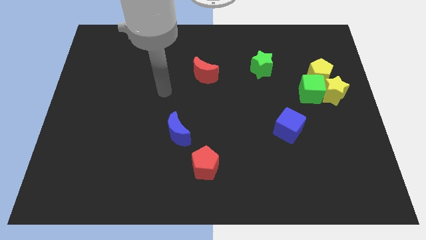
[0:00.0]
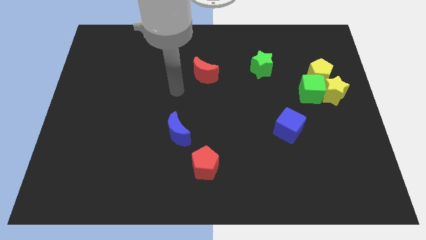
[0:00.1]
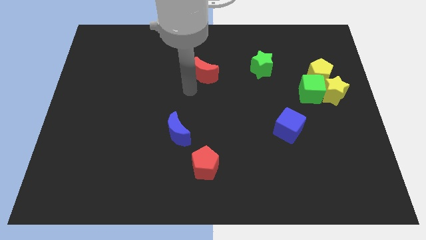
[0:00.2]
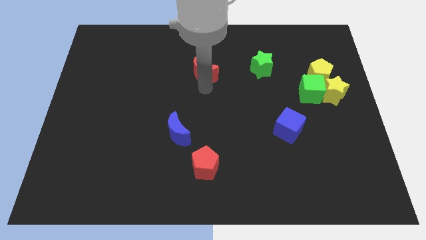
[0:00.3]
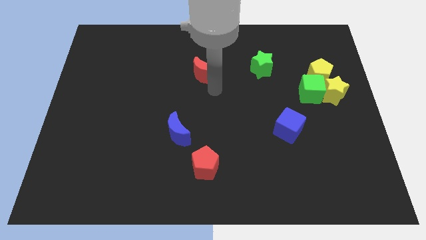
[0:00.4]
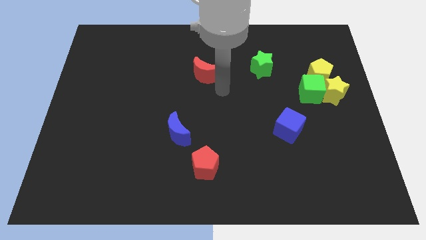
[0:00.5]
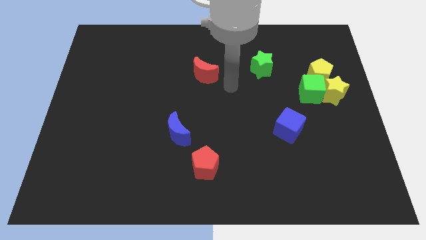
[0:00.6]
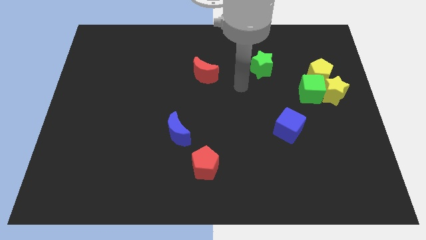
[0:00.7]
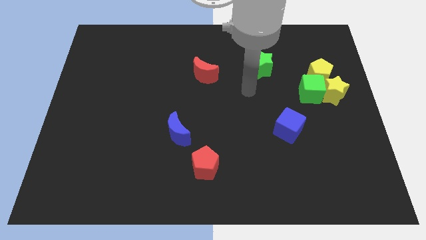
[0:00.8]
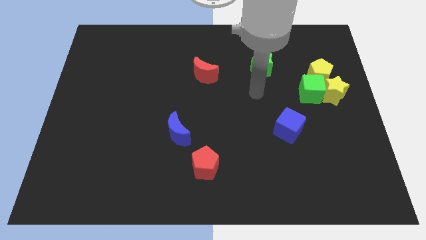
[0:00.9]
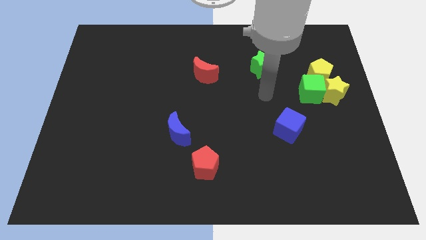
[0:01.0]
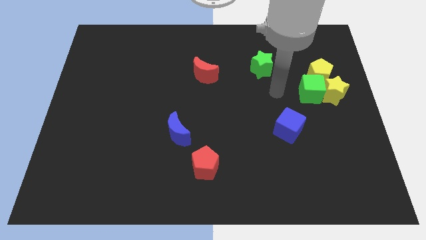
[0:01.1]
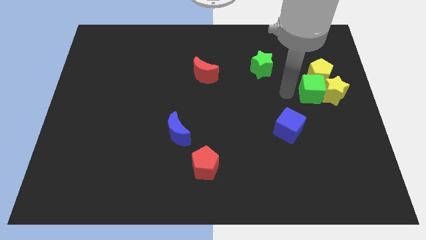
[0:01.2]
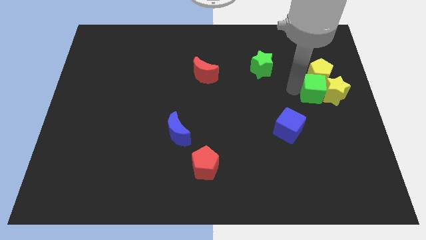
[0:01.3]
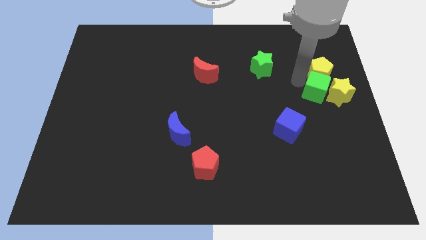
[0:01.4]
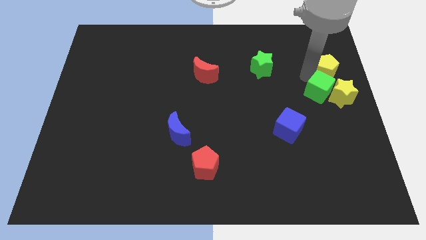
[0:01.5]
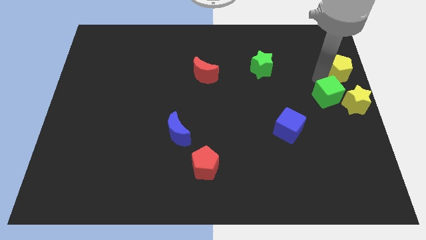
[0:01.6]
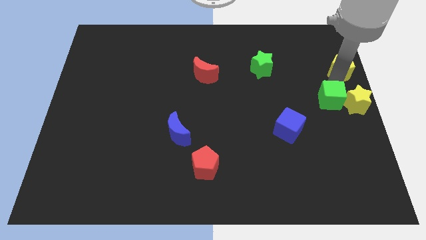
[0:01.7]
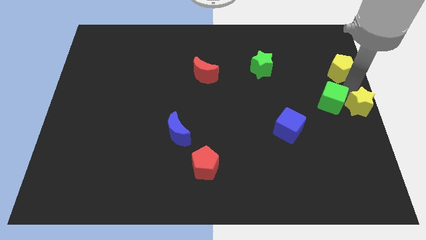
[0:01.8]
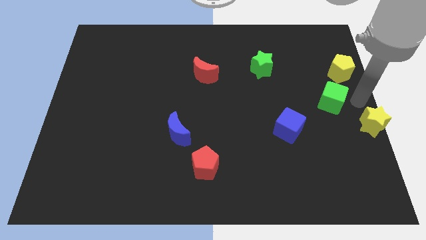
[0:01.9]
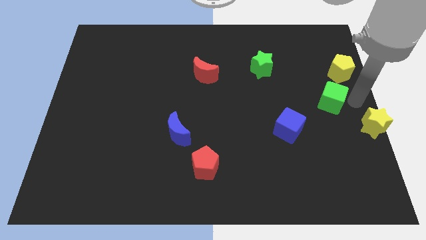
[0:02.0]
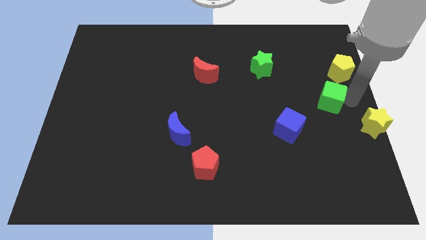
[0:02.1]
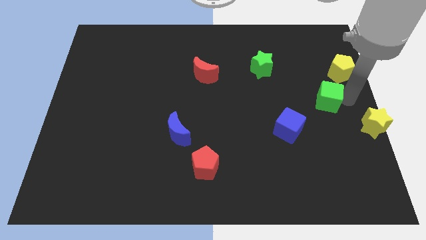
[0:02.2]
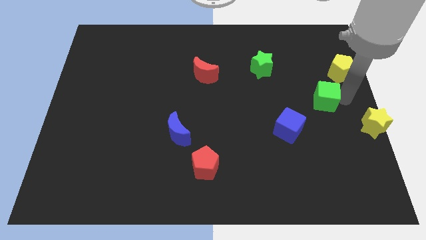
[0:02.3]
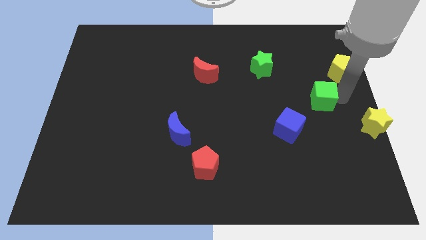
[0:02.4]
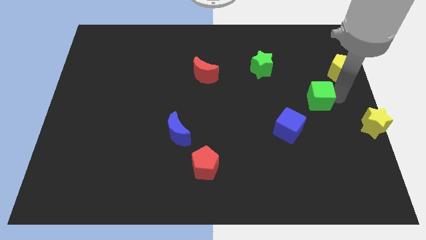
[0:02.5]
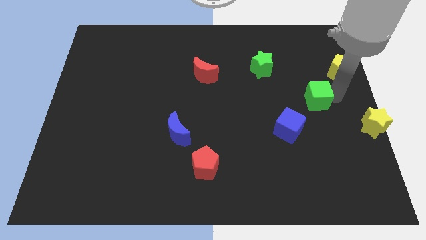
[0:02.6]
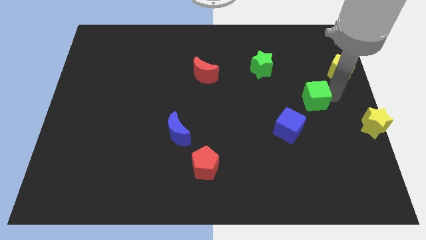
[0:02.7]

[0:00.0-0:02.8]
move the green cube away from the yellow star and yellow pentagon

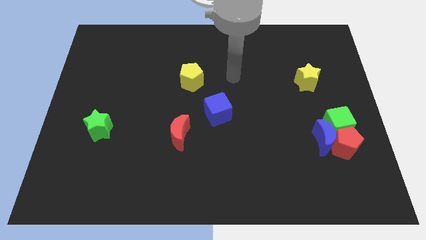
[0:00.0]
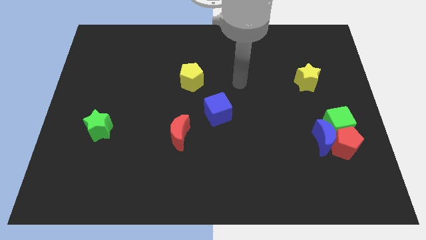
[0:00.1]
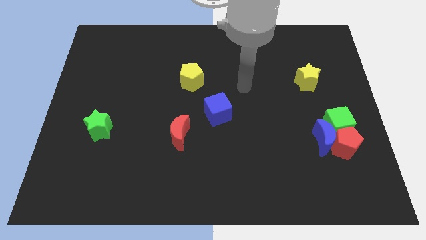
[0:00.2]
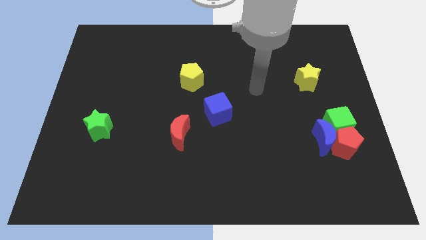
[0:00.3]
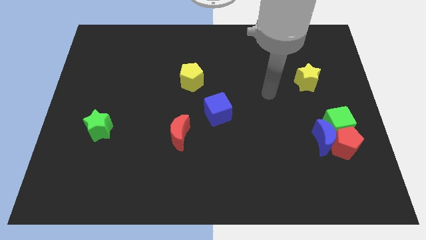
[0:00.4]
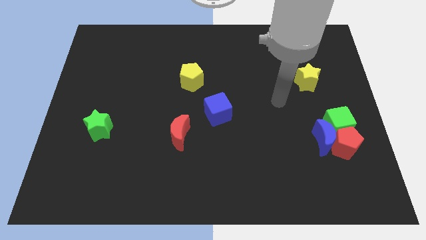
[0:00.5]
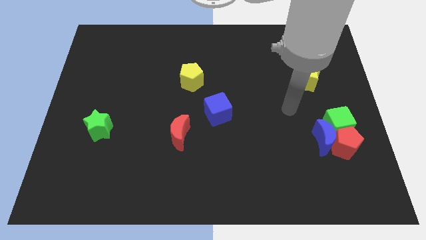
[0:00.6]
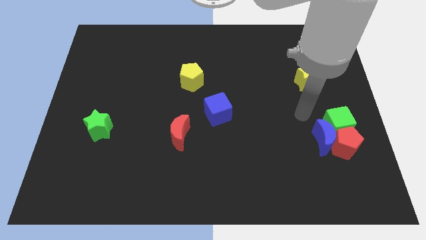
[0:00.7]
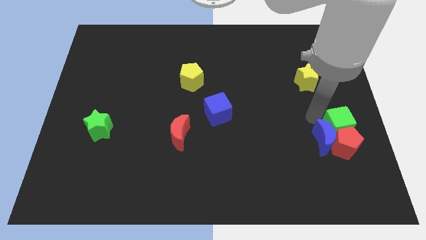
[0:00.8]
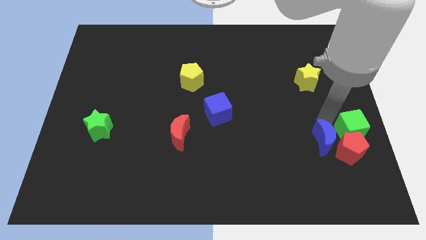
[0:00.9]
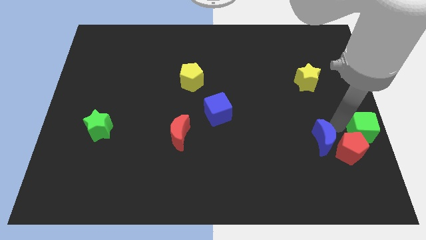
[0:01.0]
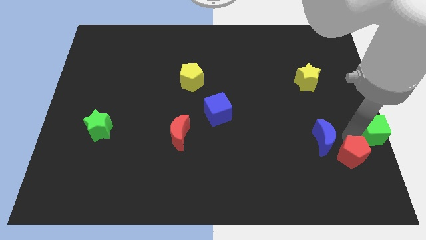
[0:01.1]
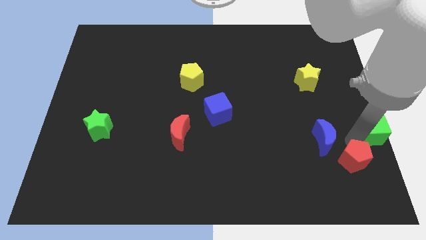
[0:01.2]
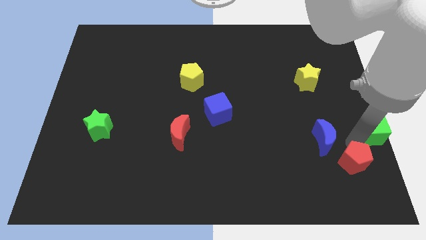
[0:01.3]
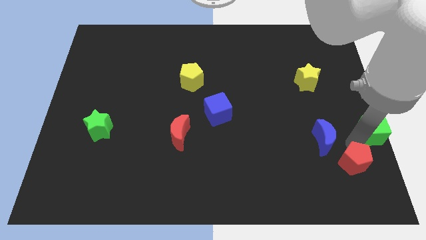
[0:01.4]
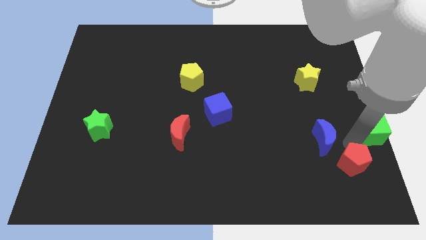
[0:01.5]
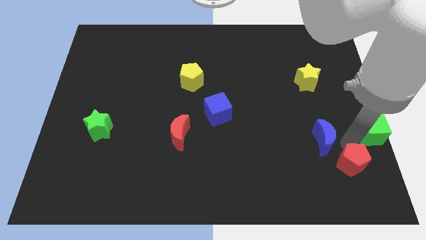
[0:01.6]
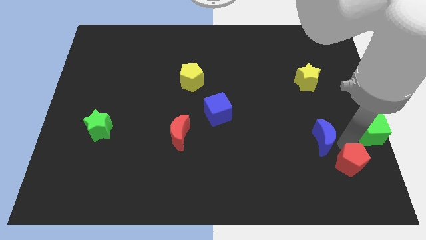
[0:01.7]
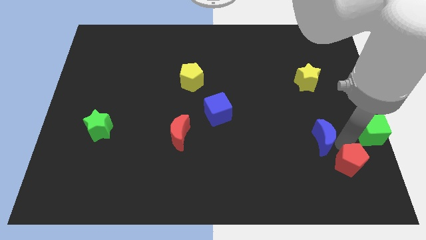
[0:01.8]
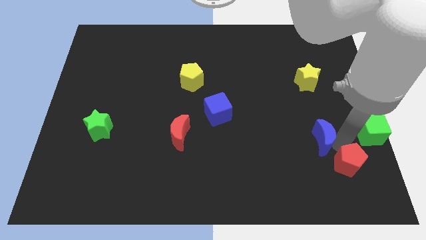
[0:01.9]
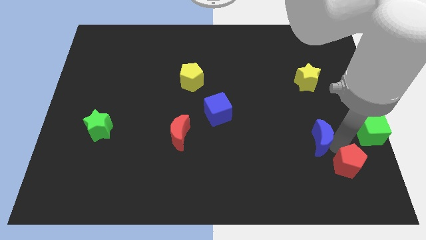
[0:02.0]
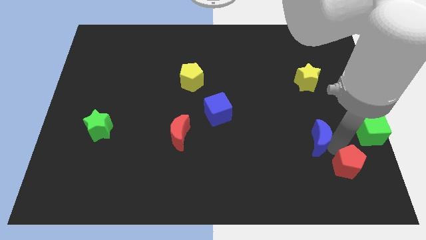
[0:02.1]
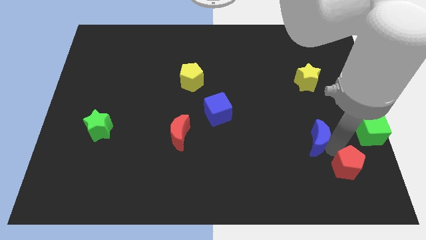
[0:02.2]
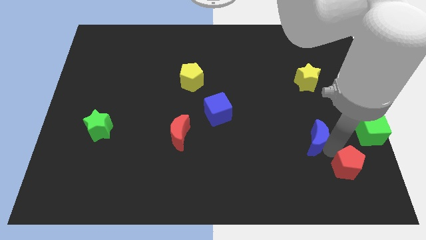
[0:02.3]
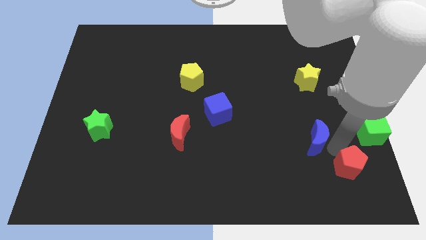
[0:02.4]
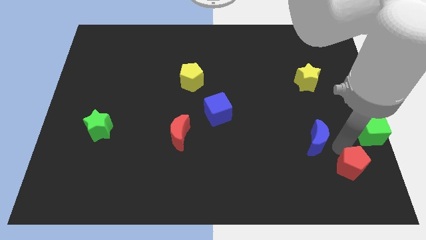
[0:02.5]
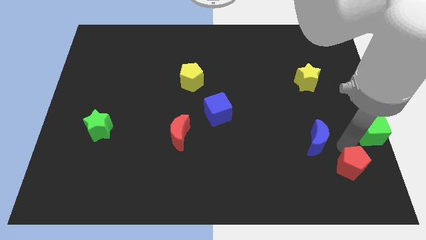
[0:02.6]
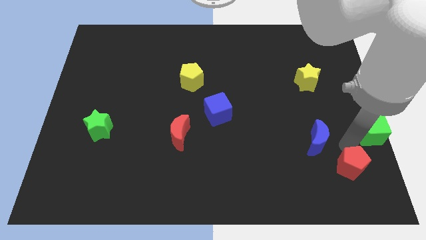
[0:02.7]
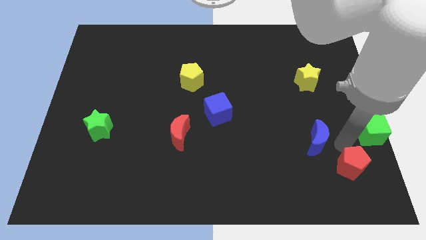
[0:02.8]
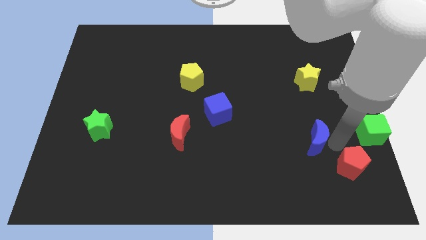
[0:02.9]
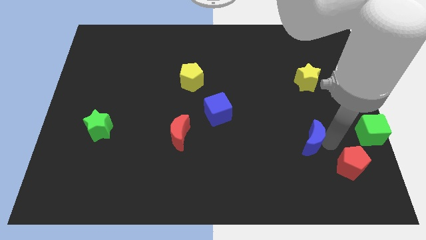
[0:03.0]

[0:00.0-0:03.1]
move the blue moon away from the red pentagon and green cube

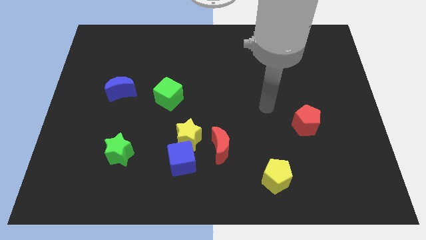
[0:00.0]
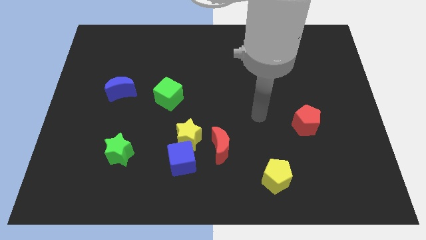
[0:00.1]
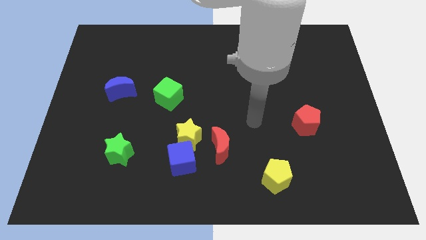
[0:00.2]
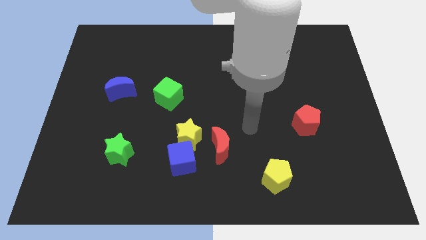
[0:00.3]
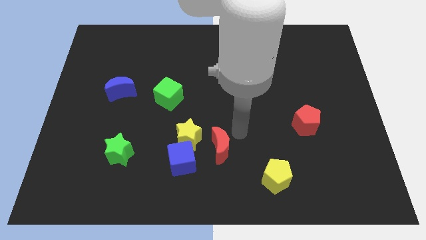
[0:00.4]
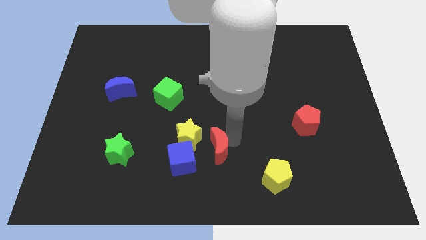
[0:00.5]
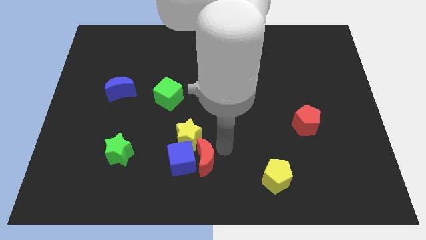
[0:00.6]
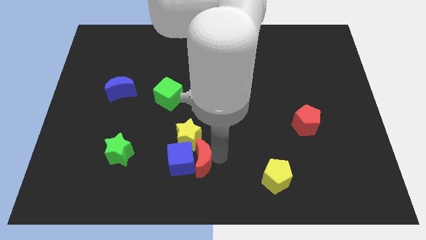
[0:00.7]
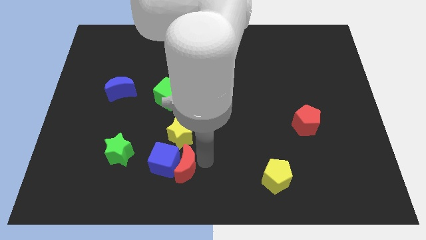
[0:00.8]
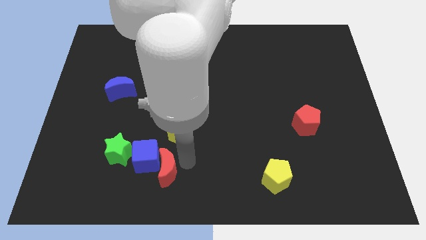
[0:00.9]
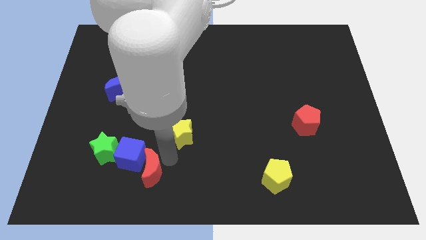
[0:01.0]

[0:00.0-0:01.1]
move the yellow star away from the blue cube and red moon

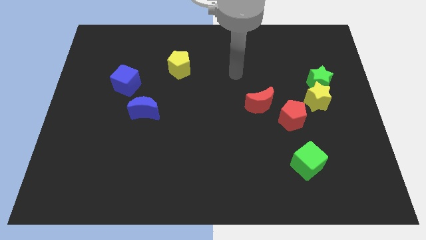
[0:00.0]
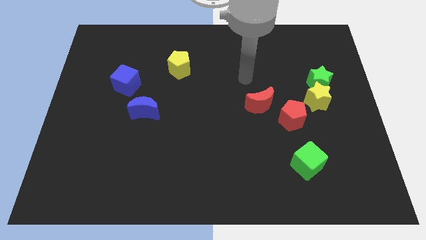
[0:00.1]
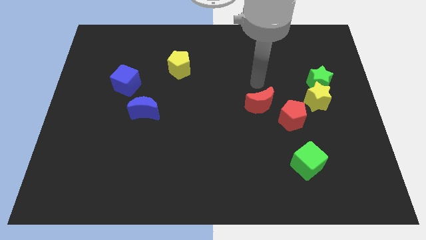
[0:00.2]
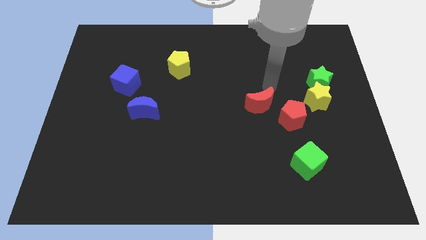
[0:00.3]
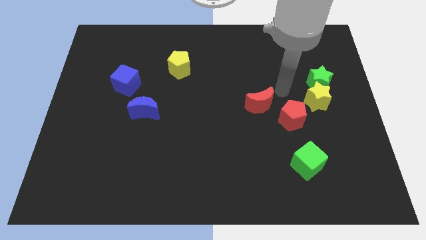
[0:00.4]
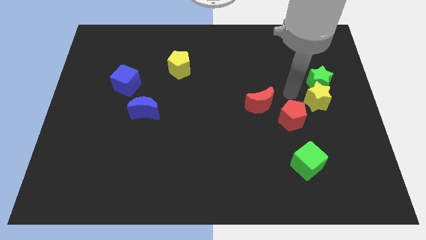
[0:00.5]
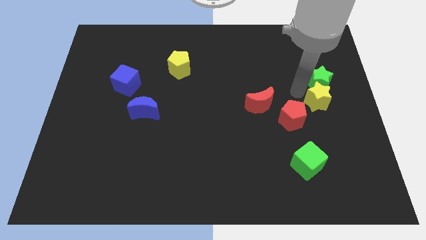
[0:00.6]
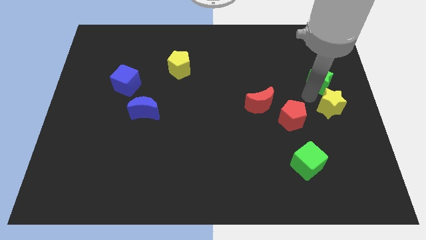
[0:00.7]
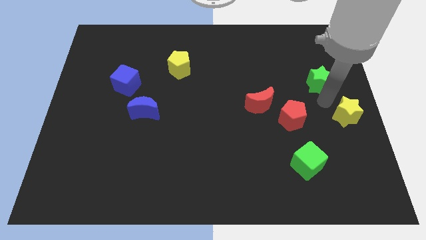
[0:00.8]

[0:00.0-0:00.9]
separate the green star from the yellow star

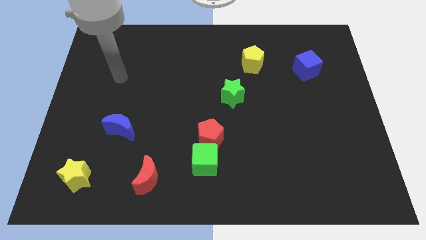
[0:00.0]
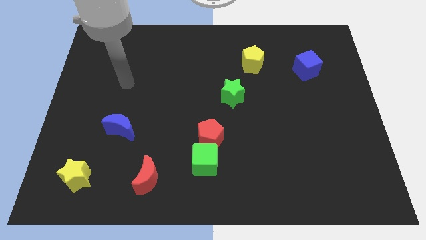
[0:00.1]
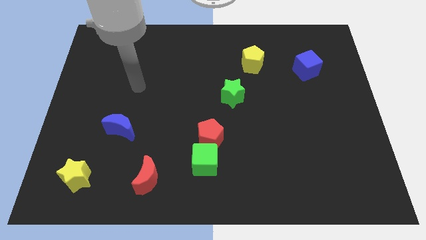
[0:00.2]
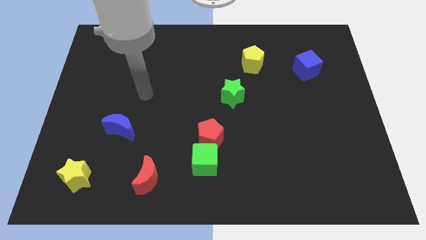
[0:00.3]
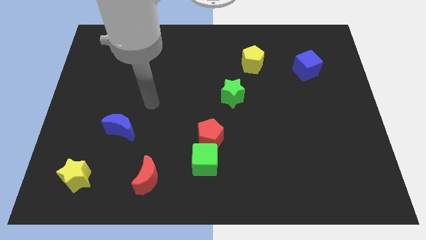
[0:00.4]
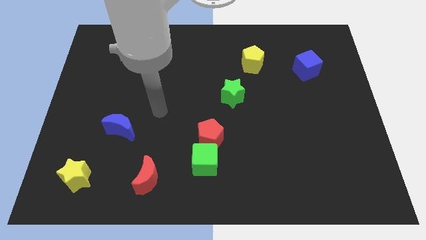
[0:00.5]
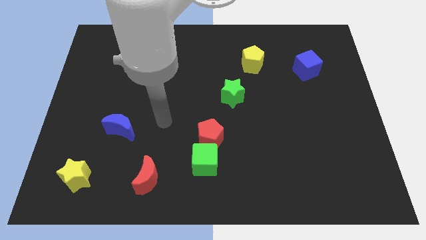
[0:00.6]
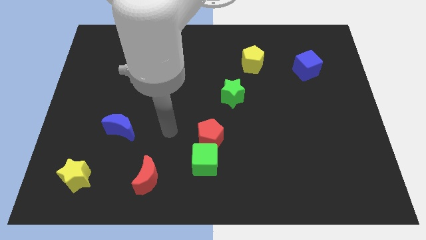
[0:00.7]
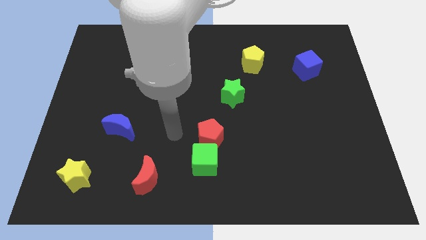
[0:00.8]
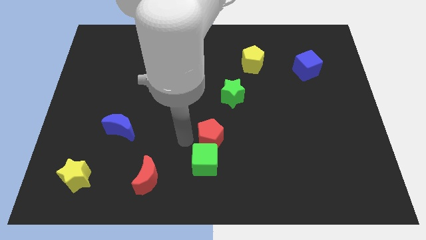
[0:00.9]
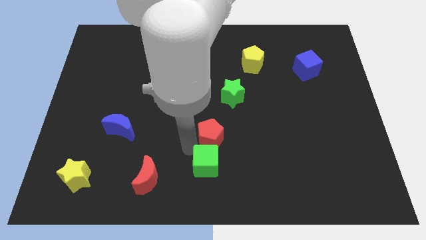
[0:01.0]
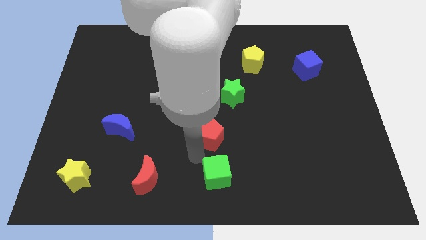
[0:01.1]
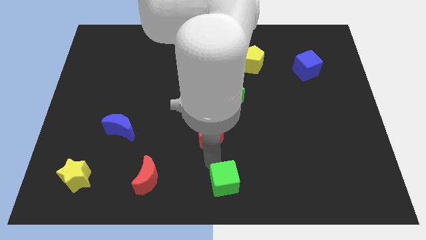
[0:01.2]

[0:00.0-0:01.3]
separate the red pentagon from the green cube
